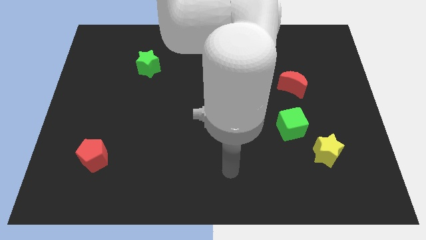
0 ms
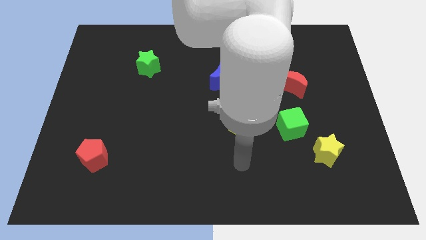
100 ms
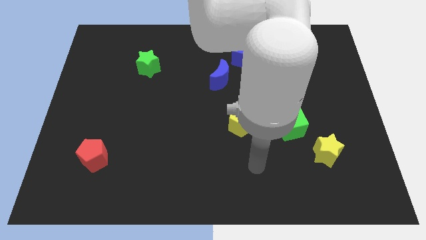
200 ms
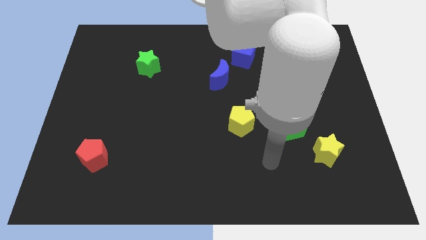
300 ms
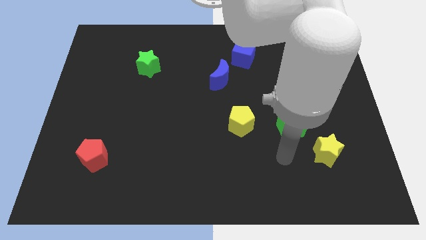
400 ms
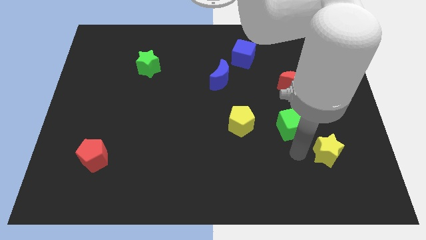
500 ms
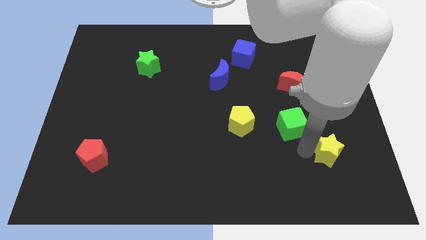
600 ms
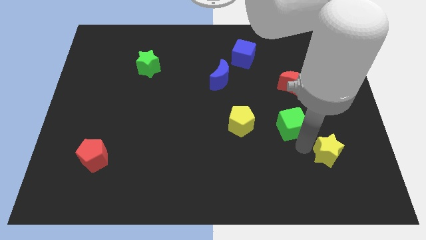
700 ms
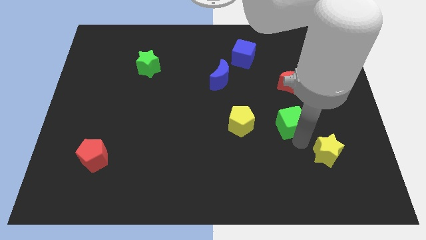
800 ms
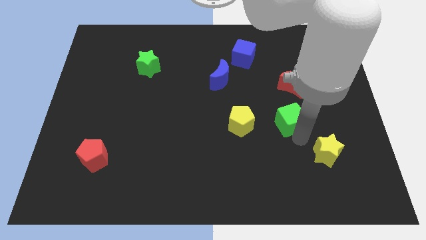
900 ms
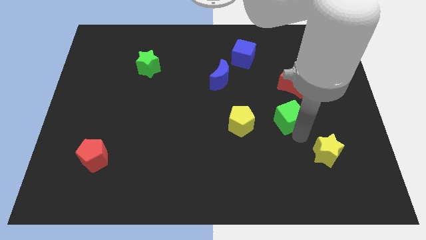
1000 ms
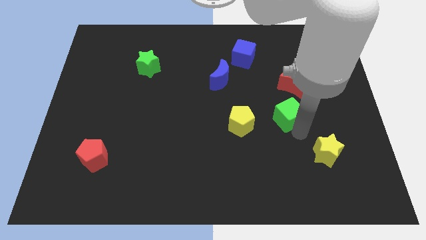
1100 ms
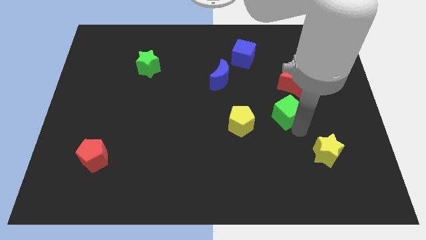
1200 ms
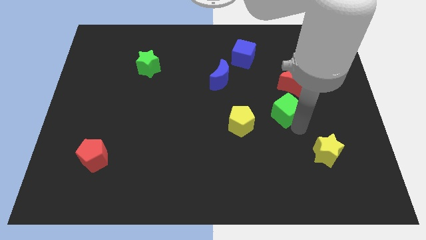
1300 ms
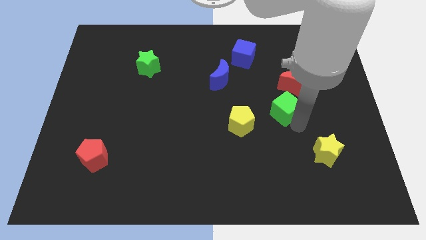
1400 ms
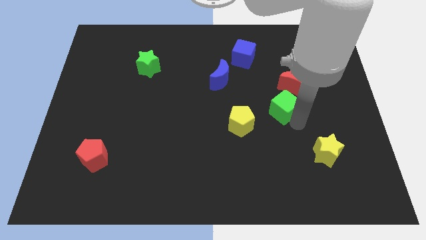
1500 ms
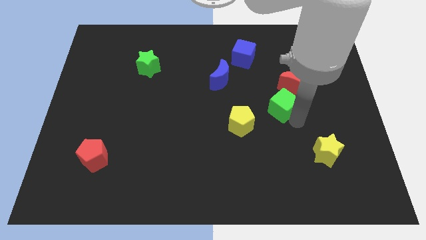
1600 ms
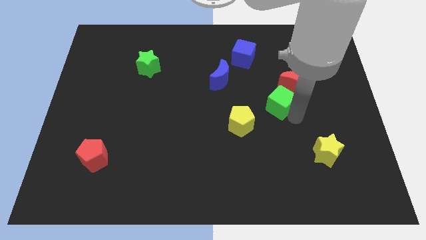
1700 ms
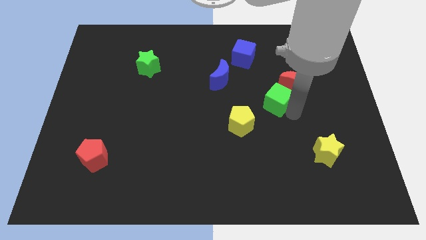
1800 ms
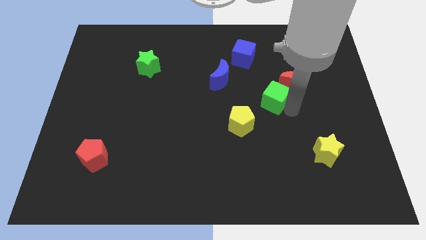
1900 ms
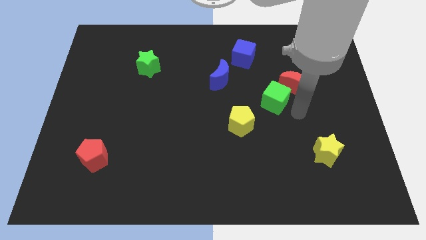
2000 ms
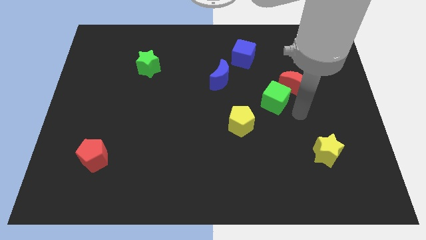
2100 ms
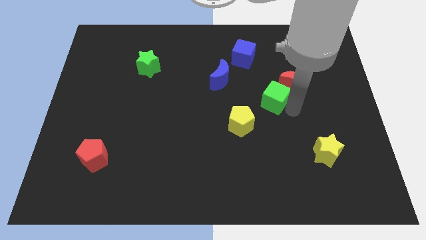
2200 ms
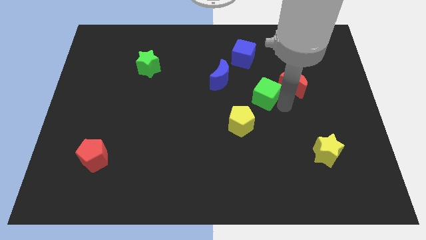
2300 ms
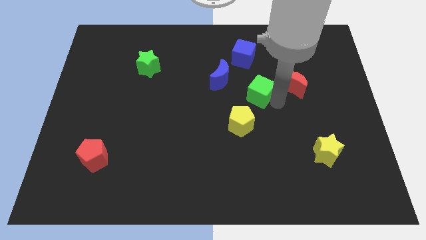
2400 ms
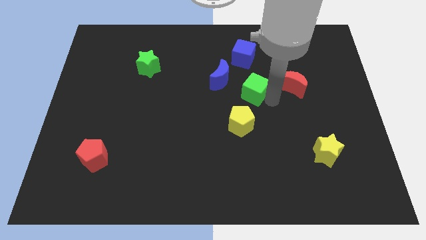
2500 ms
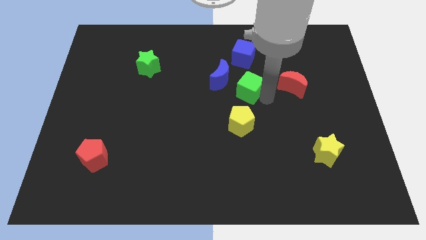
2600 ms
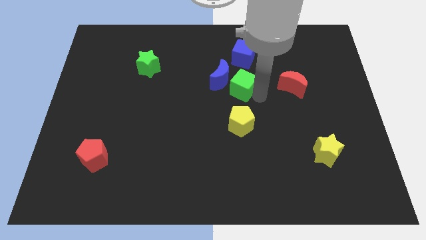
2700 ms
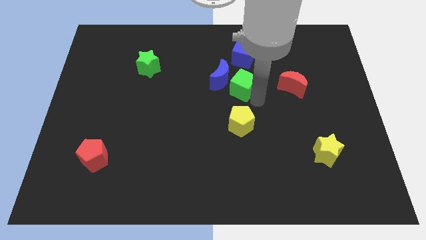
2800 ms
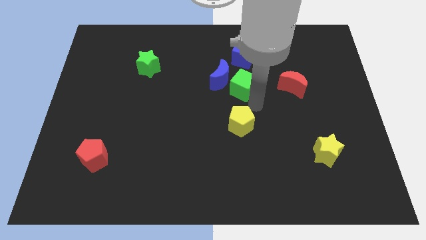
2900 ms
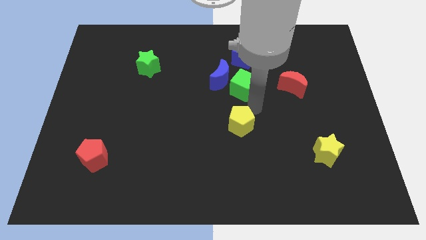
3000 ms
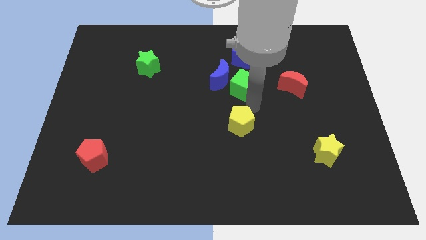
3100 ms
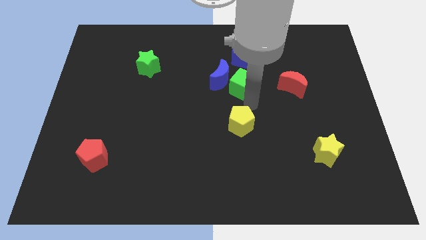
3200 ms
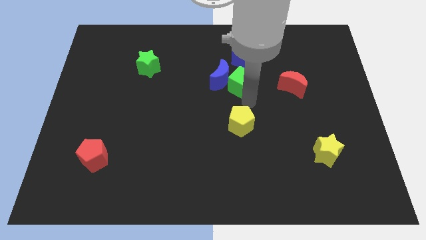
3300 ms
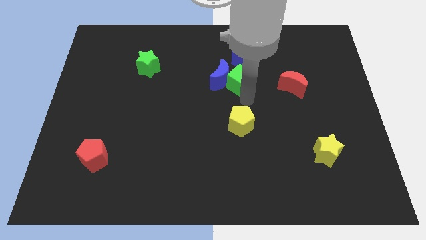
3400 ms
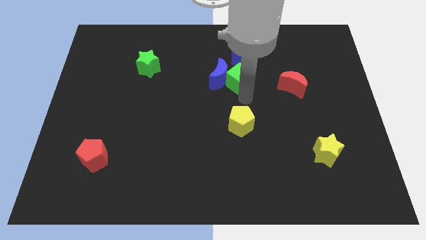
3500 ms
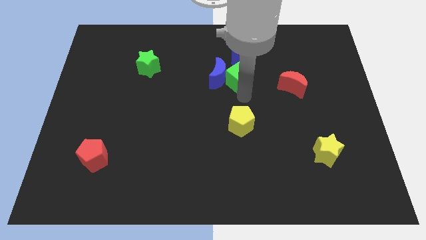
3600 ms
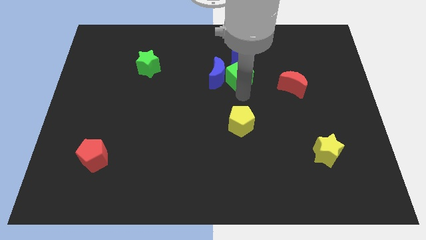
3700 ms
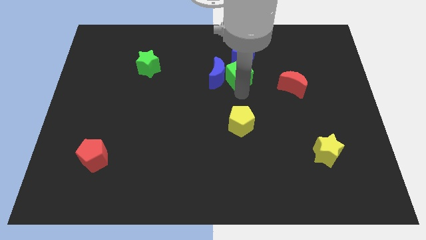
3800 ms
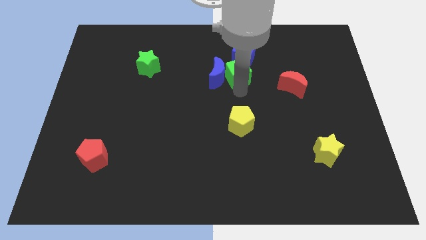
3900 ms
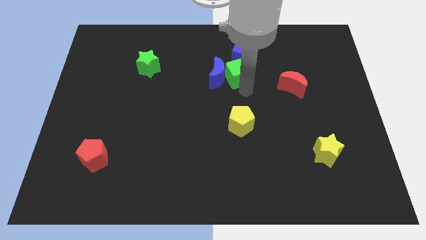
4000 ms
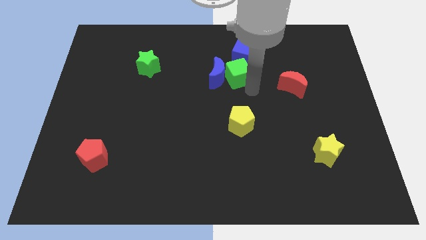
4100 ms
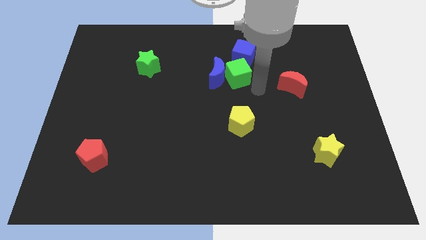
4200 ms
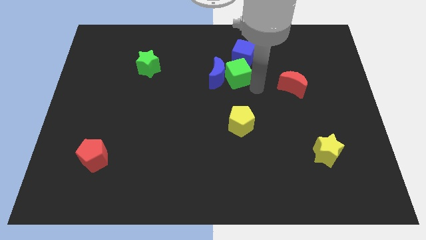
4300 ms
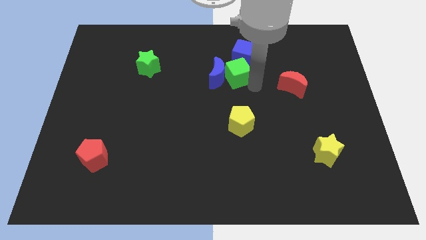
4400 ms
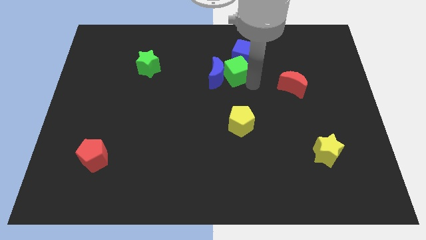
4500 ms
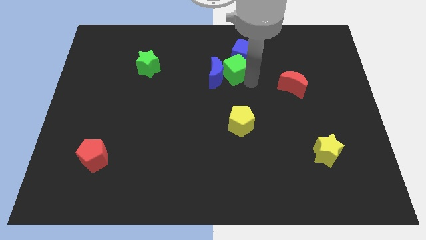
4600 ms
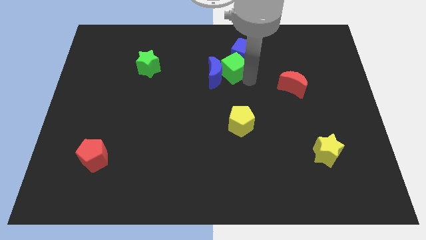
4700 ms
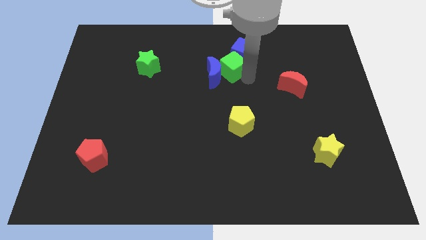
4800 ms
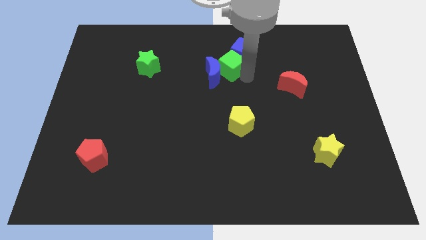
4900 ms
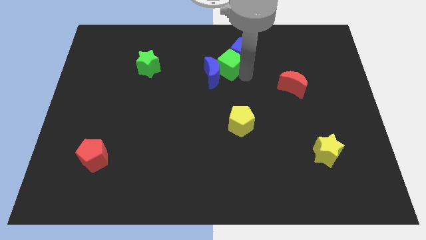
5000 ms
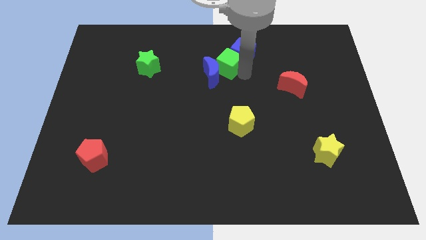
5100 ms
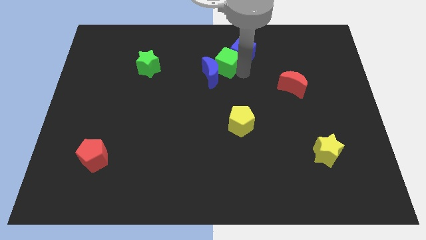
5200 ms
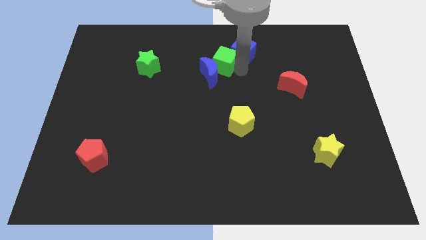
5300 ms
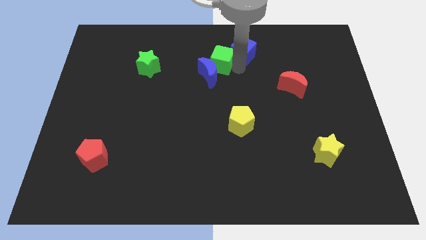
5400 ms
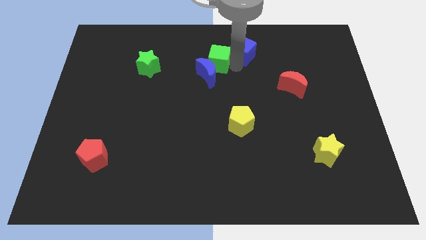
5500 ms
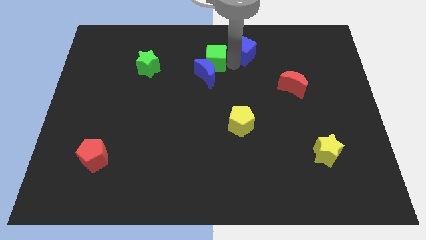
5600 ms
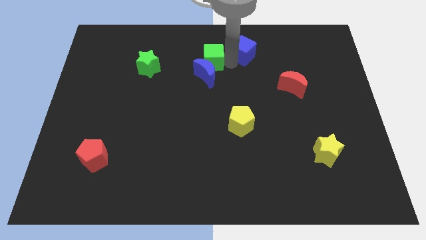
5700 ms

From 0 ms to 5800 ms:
slide the green cube diagonally up and to the left of the blue moon

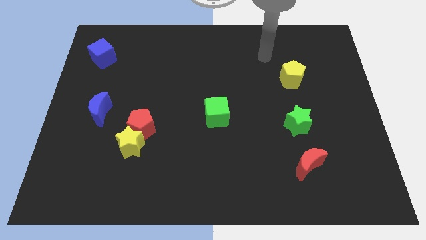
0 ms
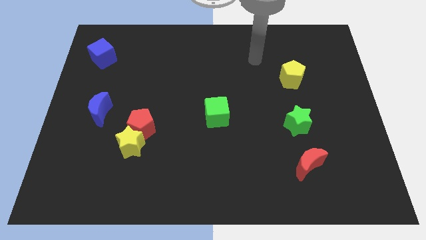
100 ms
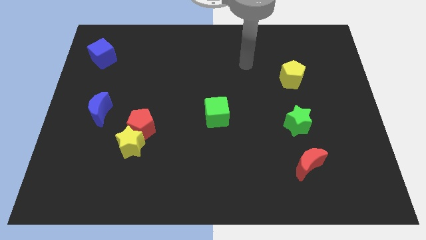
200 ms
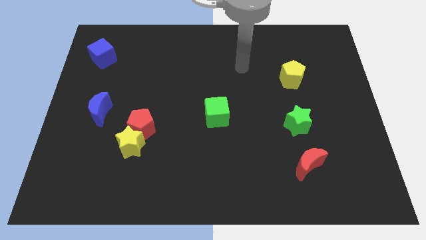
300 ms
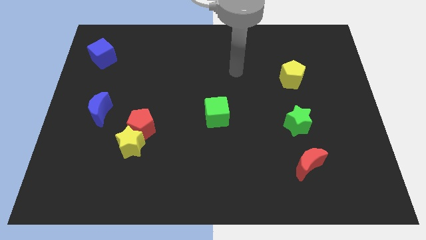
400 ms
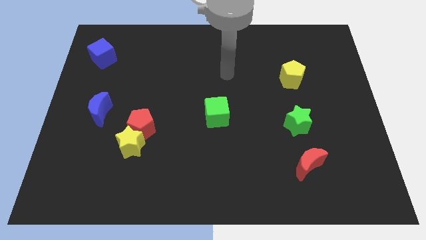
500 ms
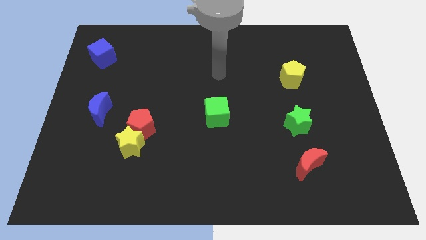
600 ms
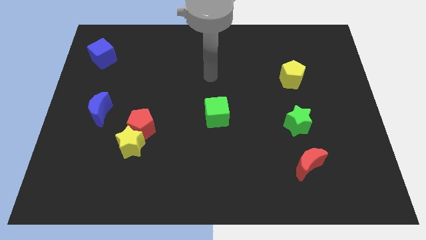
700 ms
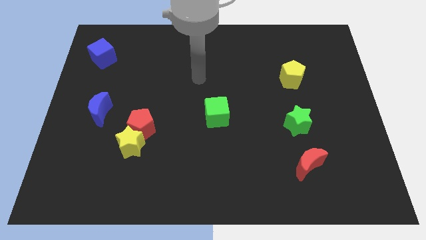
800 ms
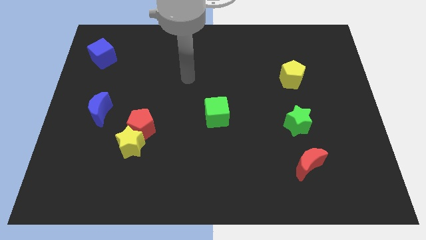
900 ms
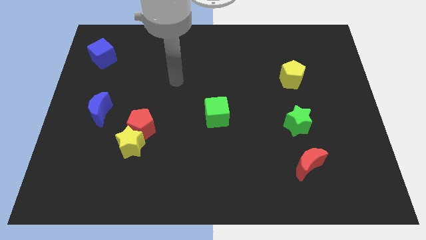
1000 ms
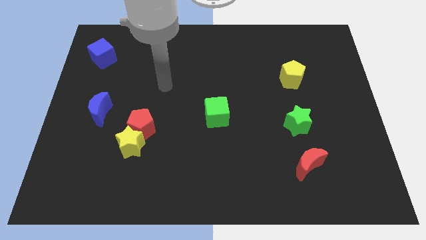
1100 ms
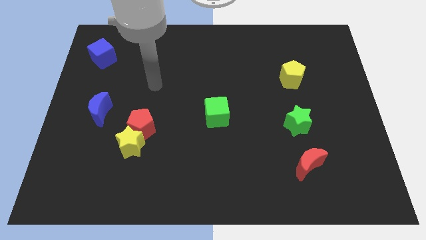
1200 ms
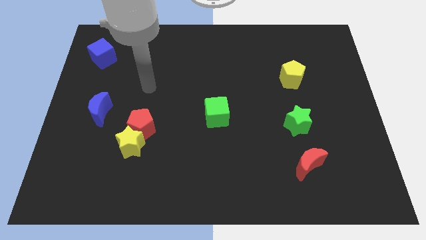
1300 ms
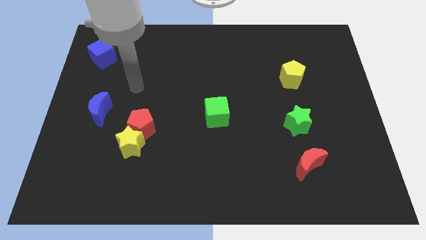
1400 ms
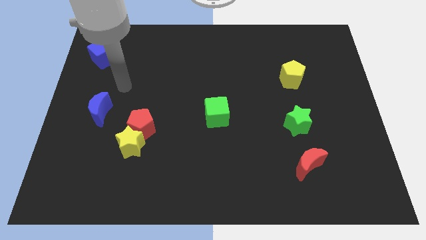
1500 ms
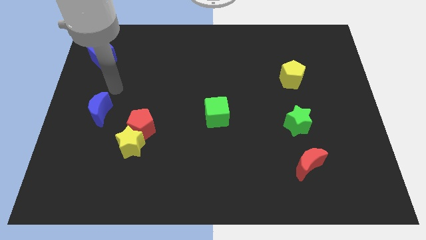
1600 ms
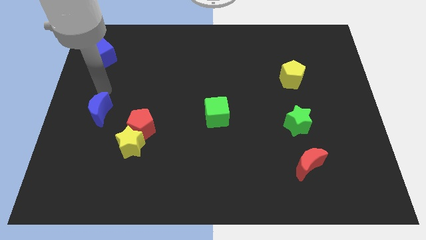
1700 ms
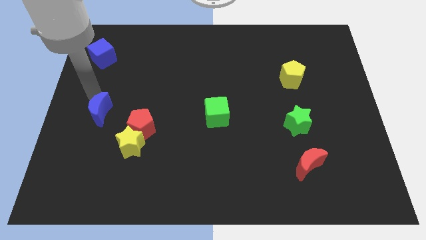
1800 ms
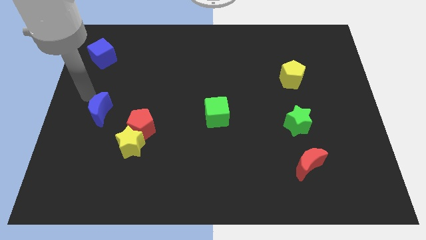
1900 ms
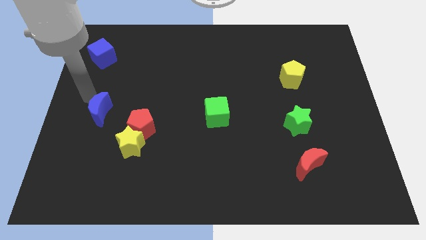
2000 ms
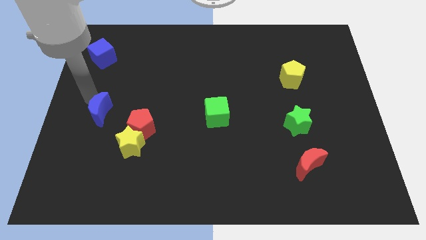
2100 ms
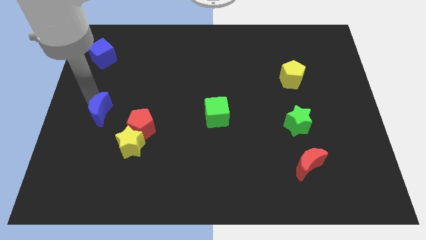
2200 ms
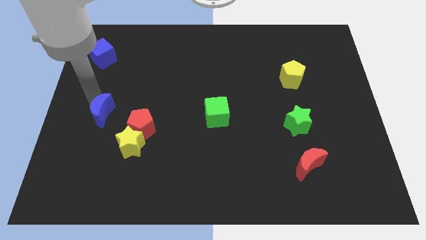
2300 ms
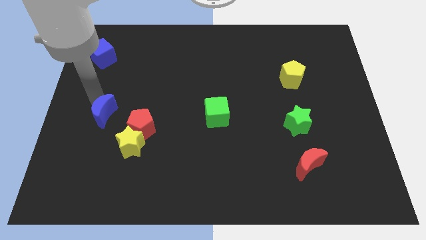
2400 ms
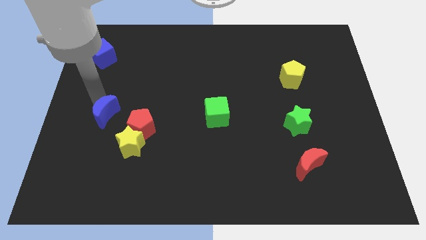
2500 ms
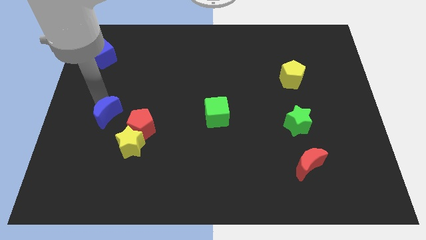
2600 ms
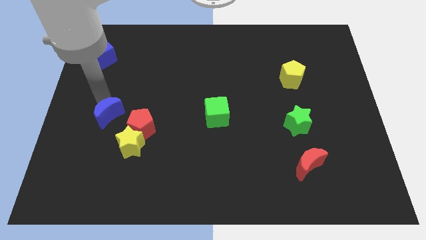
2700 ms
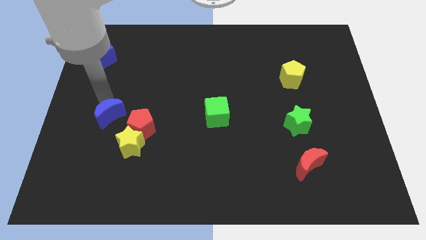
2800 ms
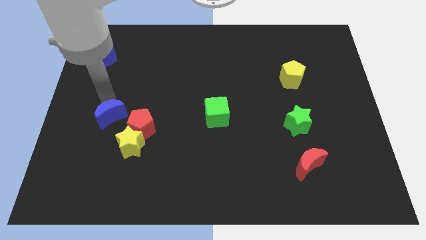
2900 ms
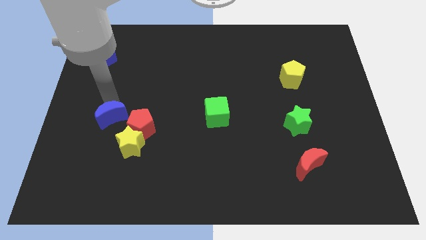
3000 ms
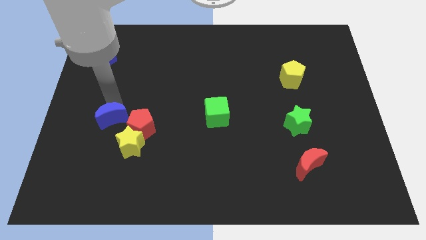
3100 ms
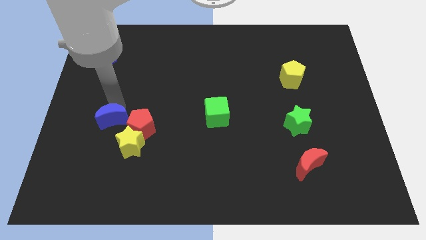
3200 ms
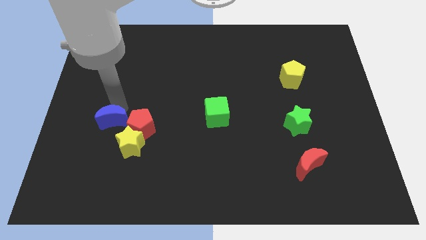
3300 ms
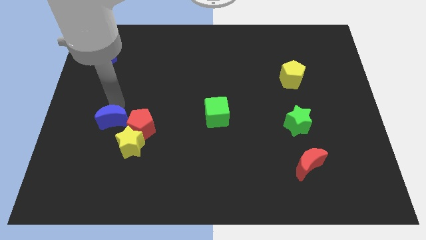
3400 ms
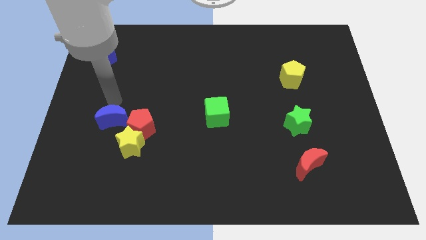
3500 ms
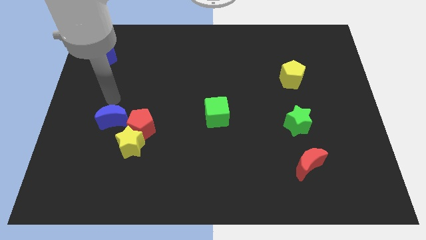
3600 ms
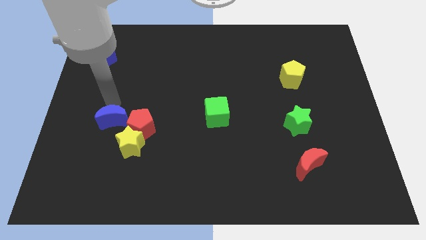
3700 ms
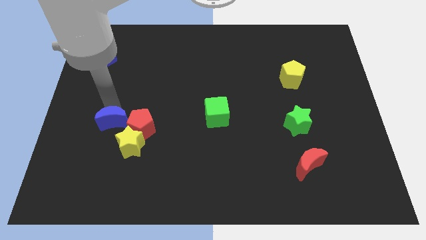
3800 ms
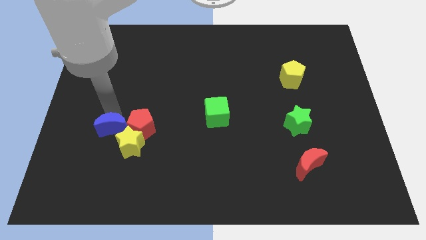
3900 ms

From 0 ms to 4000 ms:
move the blue moon diagonally down and to the left of the red pentagon
